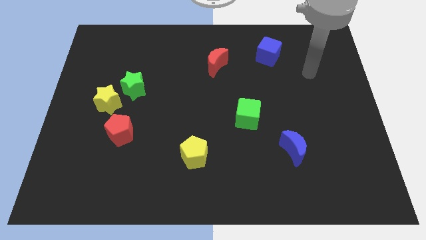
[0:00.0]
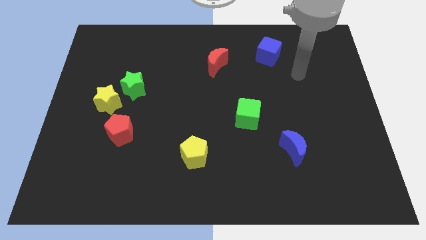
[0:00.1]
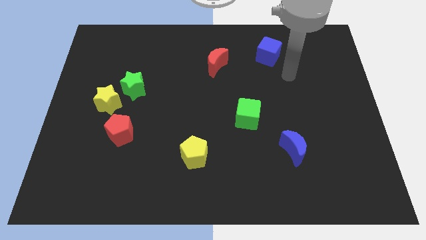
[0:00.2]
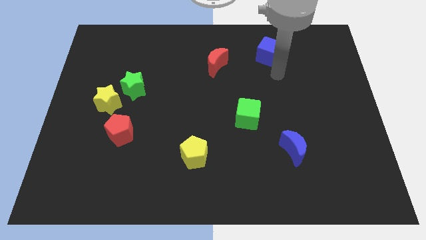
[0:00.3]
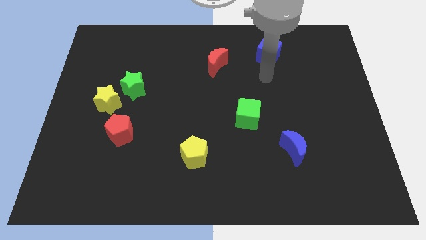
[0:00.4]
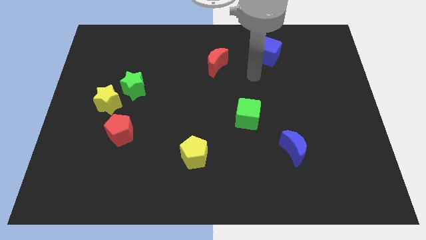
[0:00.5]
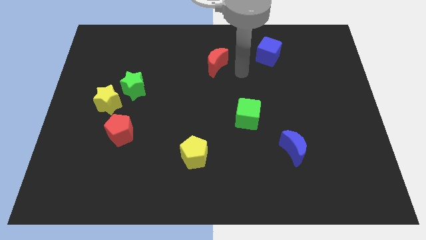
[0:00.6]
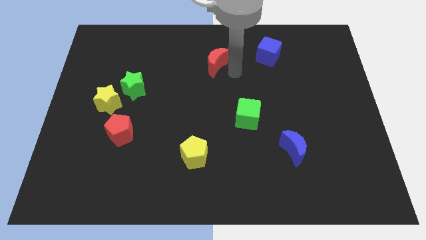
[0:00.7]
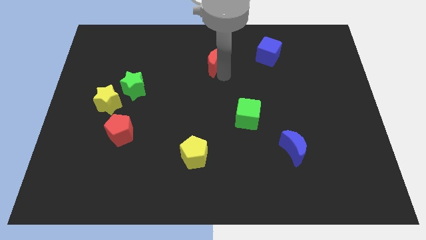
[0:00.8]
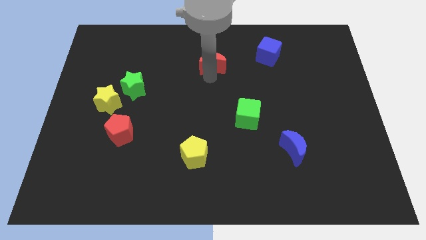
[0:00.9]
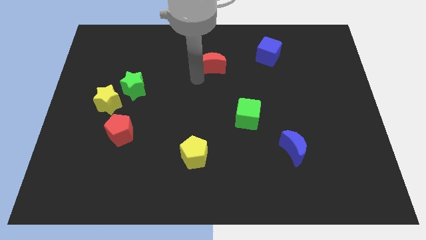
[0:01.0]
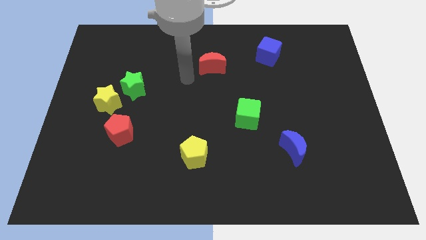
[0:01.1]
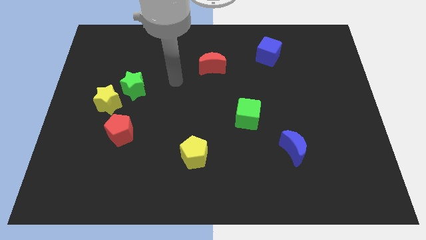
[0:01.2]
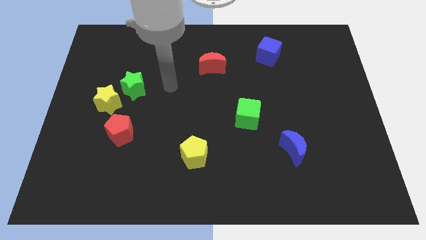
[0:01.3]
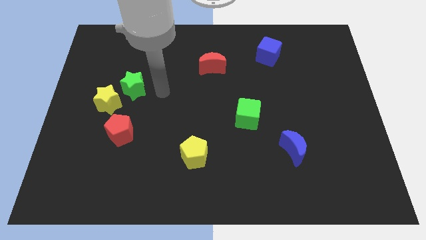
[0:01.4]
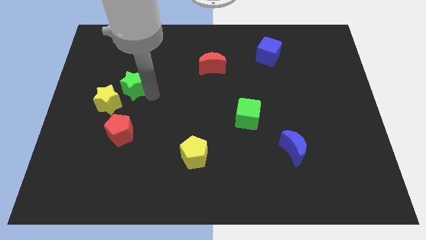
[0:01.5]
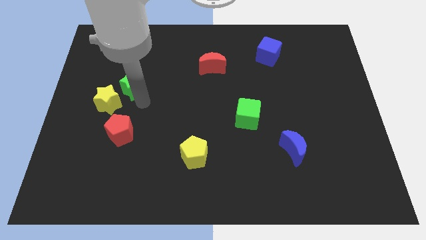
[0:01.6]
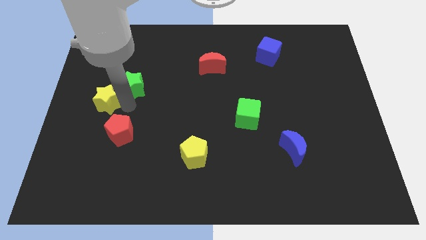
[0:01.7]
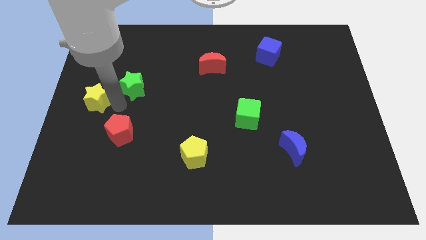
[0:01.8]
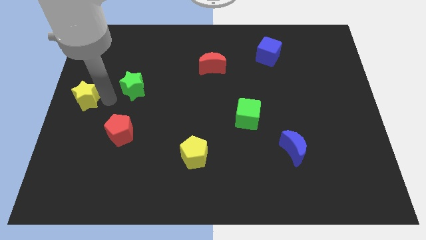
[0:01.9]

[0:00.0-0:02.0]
move the green star away from the yellow star

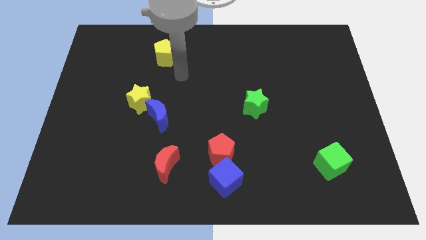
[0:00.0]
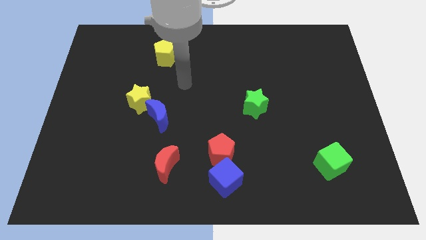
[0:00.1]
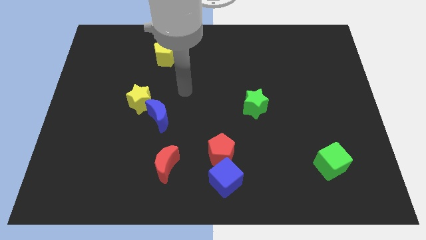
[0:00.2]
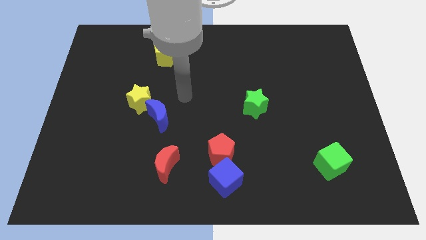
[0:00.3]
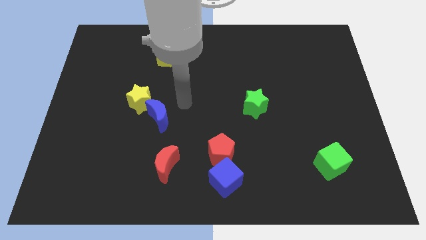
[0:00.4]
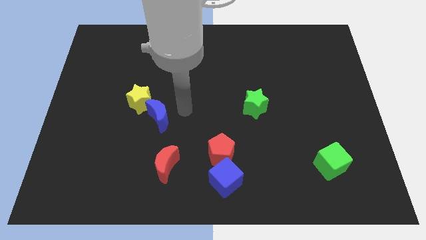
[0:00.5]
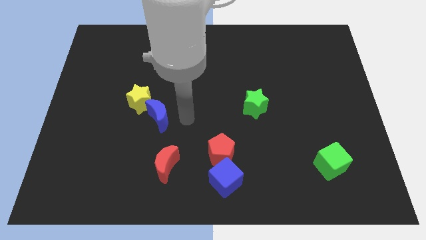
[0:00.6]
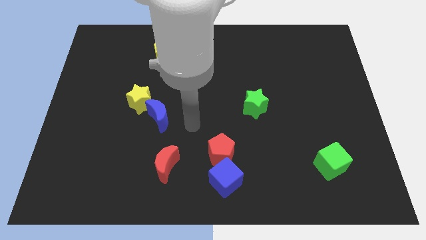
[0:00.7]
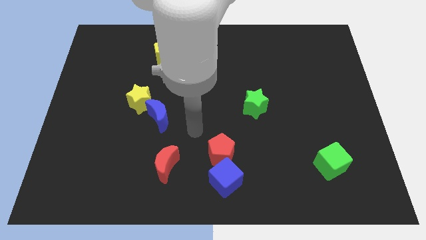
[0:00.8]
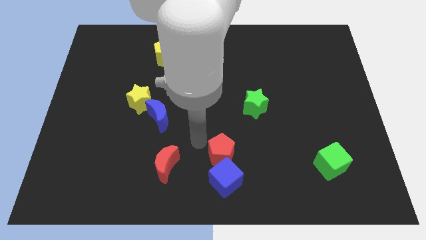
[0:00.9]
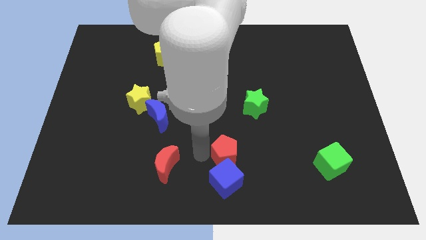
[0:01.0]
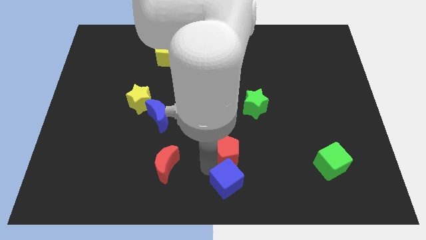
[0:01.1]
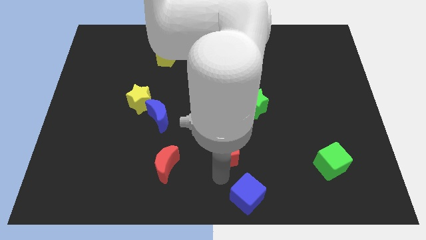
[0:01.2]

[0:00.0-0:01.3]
pull the red pentagon apart from the blue cube

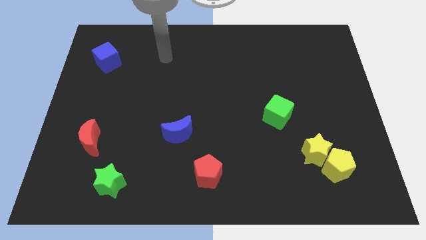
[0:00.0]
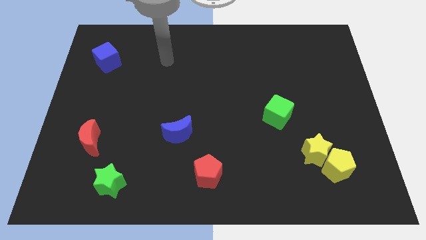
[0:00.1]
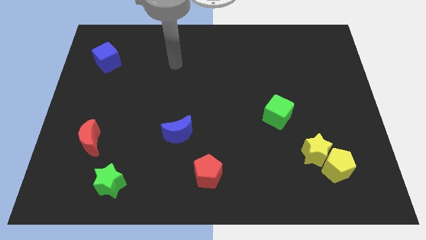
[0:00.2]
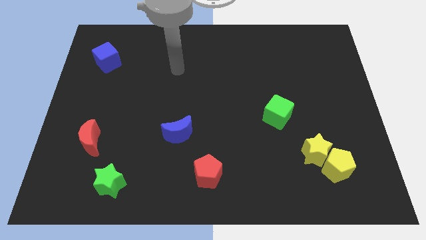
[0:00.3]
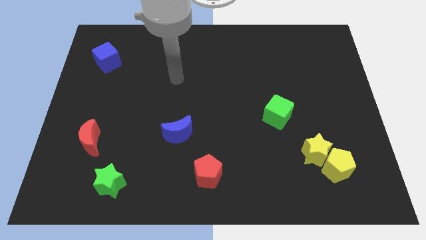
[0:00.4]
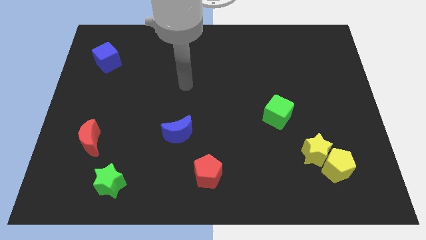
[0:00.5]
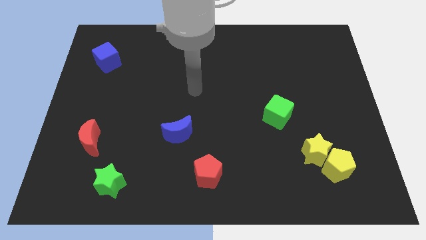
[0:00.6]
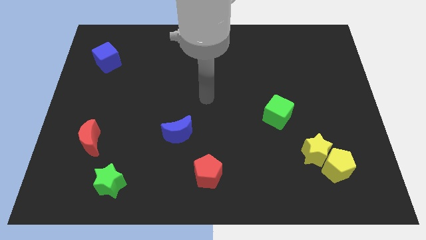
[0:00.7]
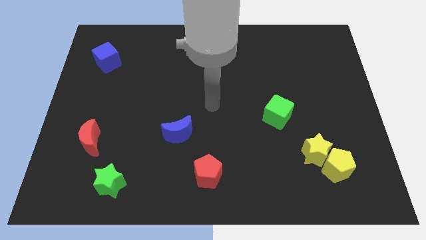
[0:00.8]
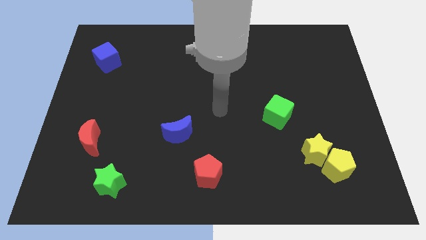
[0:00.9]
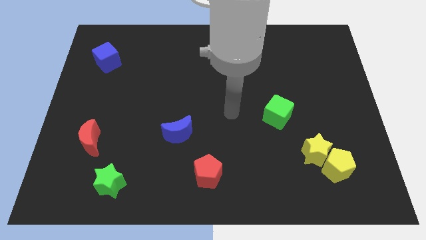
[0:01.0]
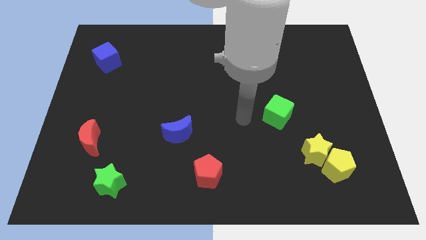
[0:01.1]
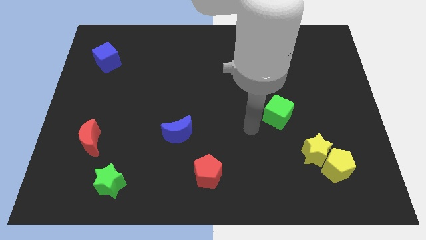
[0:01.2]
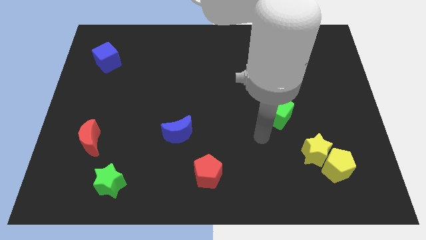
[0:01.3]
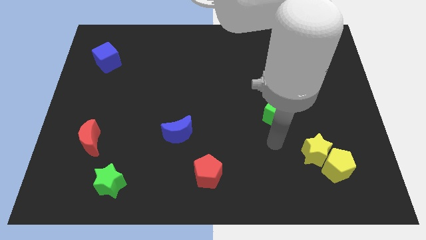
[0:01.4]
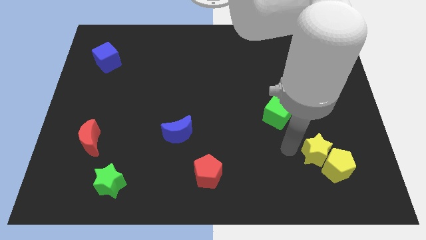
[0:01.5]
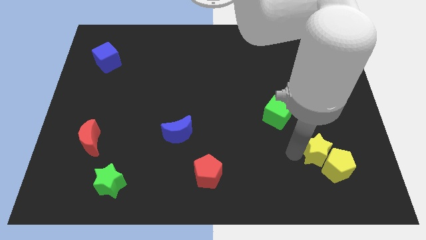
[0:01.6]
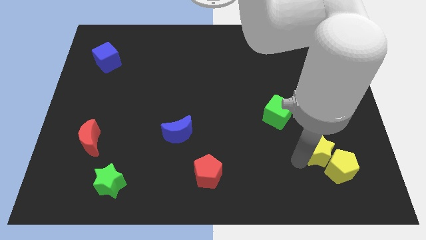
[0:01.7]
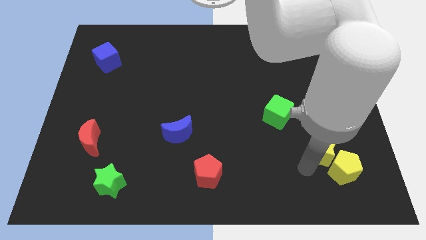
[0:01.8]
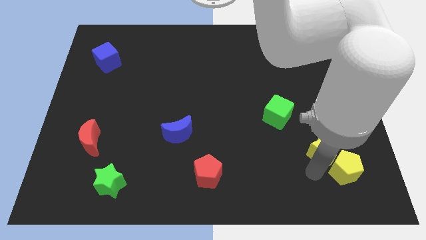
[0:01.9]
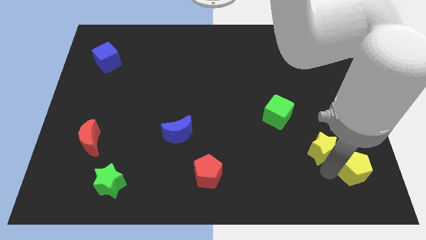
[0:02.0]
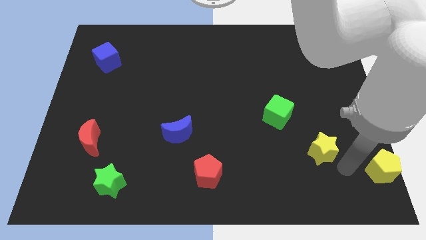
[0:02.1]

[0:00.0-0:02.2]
move the yellow star away from the yellow pentagon

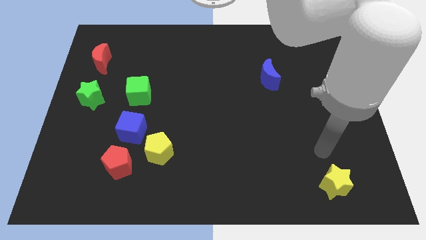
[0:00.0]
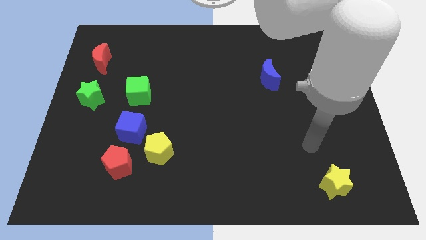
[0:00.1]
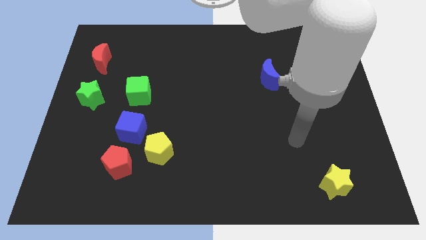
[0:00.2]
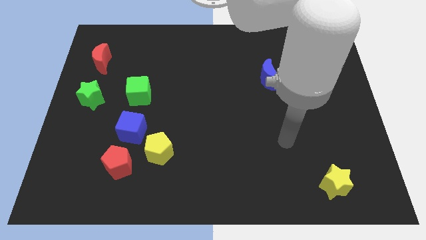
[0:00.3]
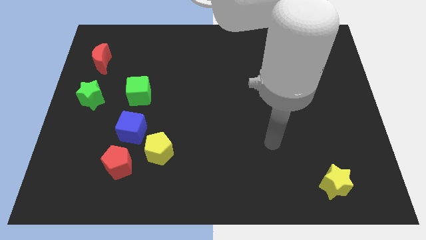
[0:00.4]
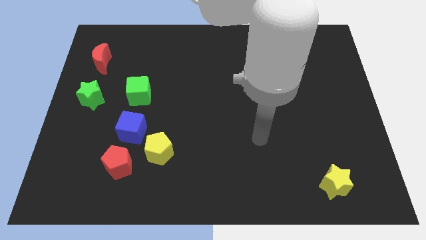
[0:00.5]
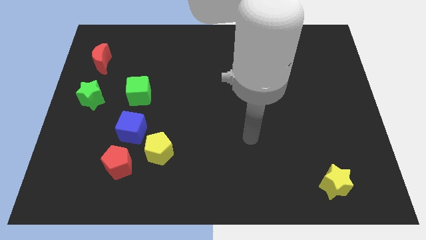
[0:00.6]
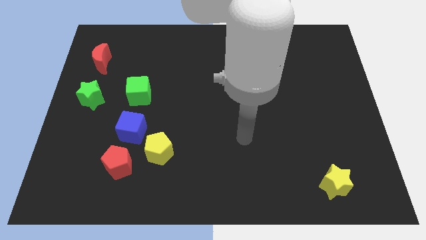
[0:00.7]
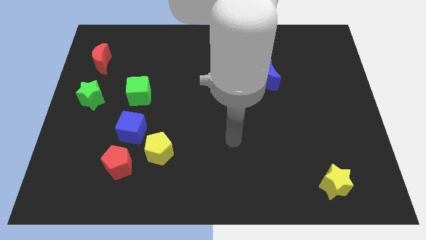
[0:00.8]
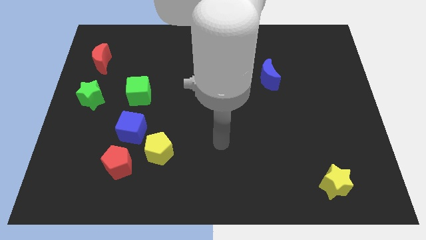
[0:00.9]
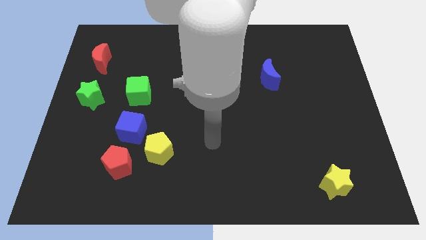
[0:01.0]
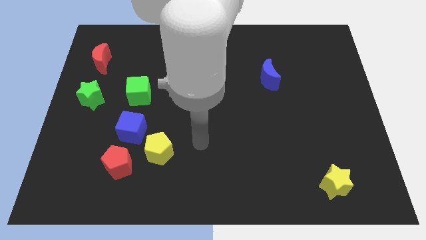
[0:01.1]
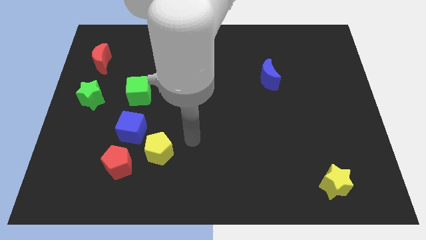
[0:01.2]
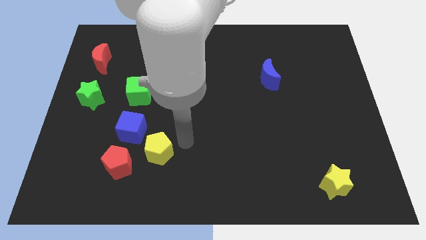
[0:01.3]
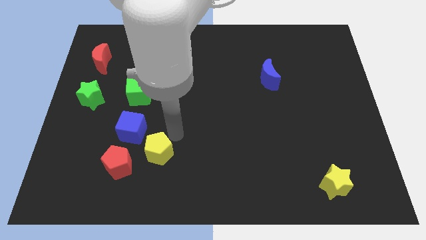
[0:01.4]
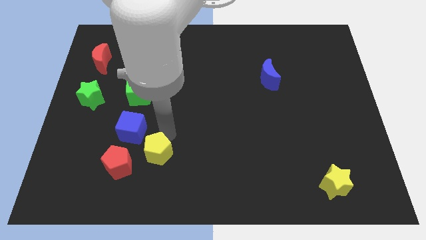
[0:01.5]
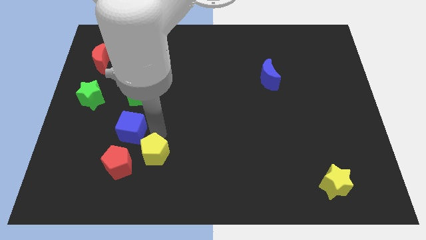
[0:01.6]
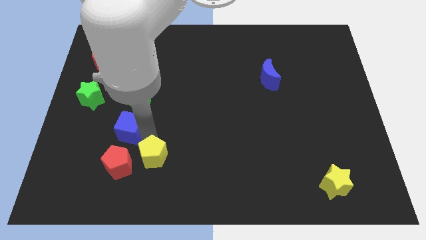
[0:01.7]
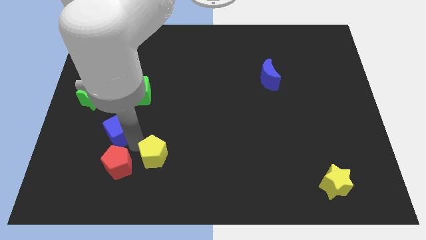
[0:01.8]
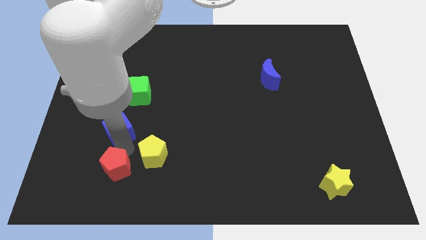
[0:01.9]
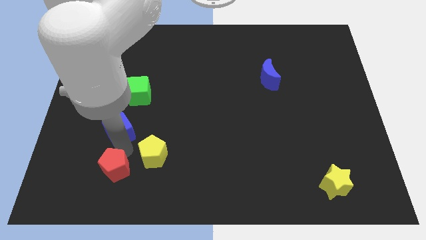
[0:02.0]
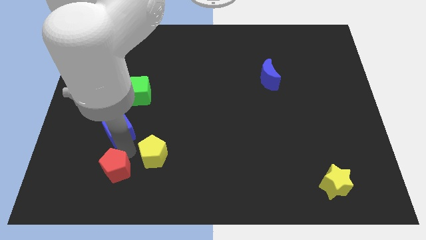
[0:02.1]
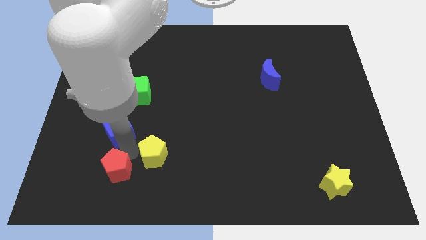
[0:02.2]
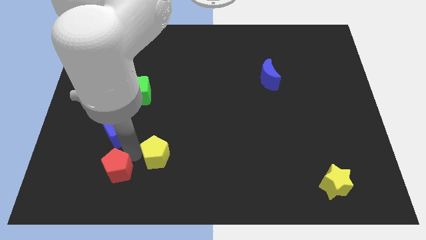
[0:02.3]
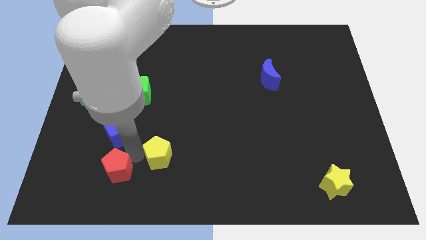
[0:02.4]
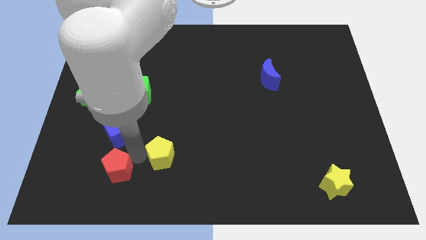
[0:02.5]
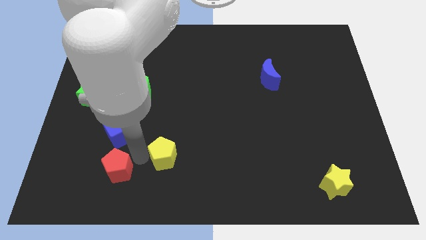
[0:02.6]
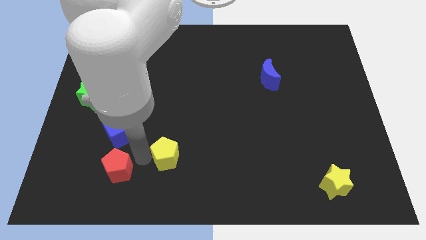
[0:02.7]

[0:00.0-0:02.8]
move the yellow pentagon away from the blue cube and red pentagon

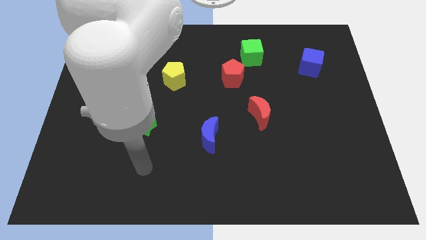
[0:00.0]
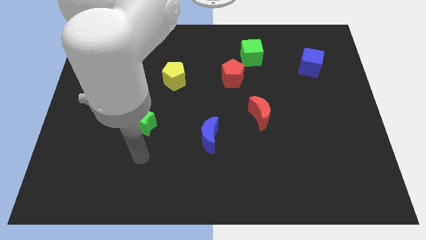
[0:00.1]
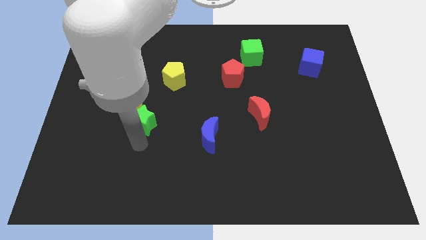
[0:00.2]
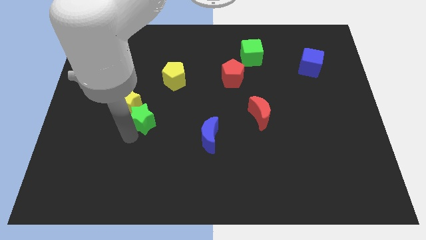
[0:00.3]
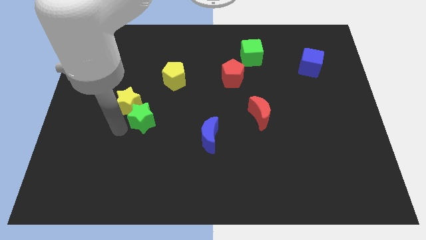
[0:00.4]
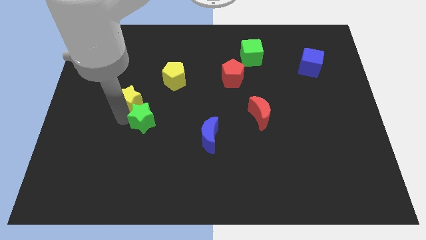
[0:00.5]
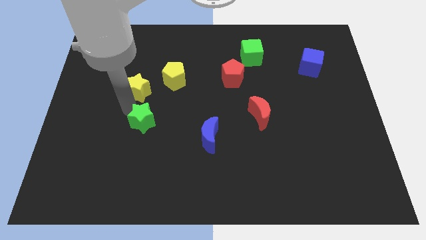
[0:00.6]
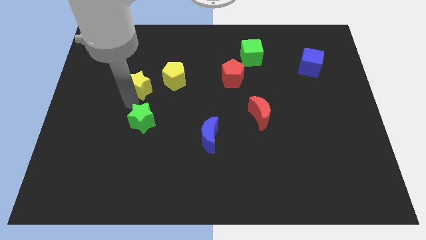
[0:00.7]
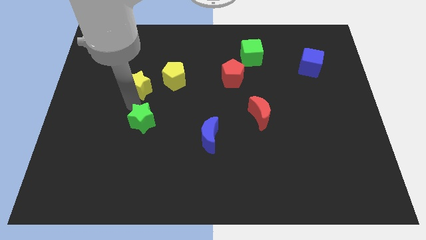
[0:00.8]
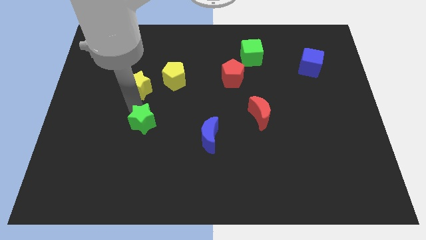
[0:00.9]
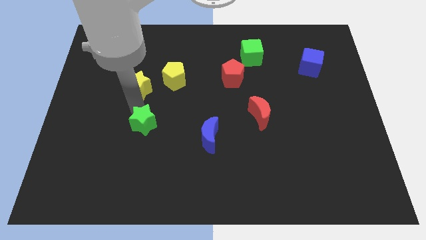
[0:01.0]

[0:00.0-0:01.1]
separate the green star from the yellow star
